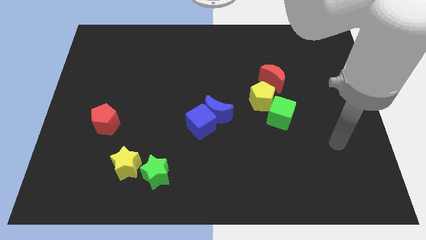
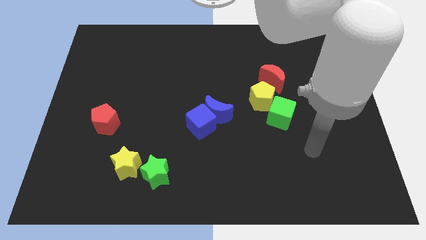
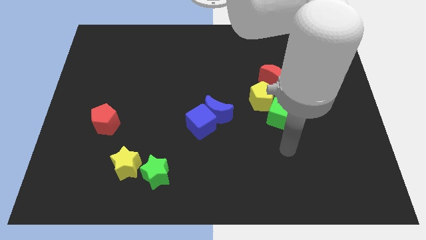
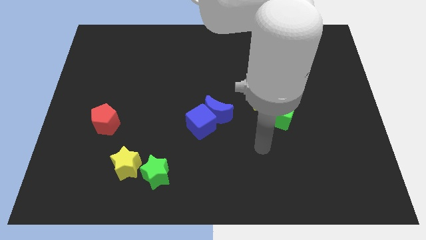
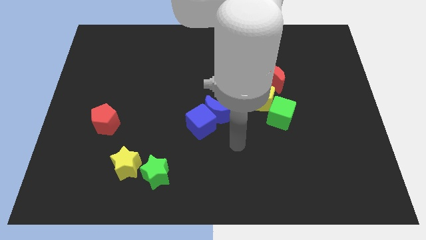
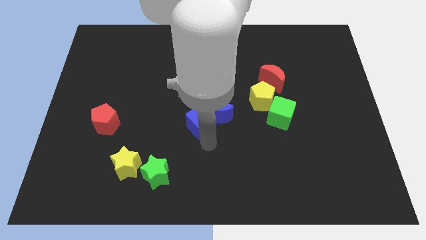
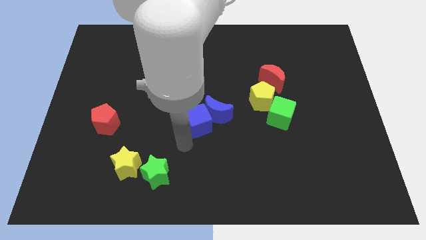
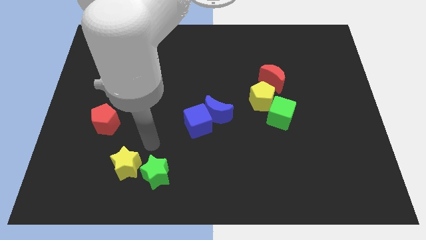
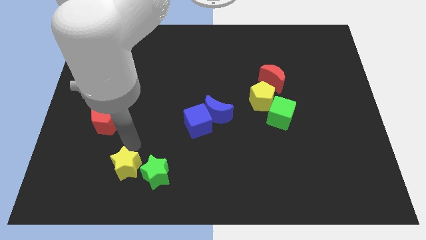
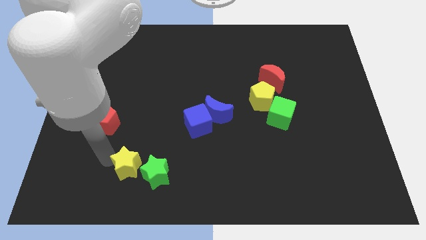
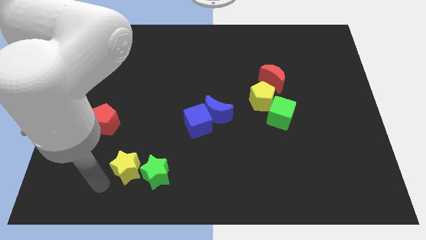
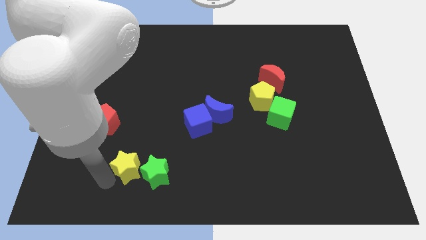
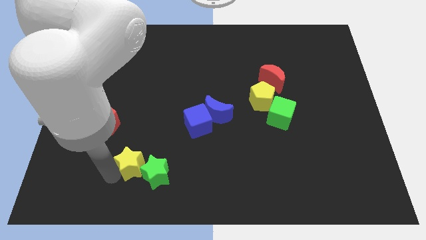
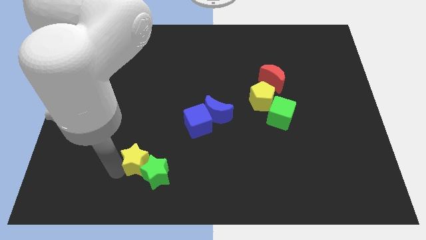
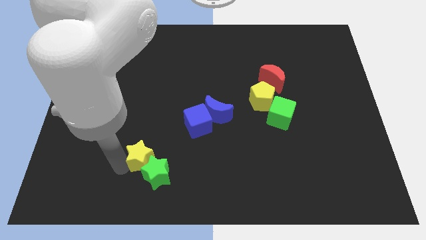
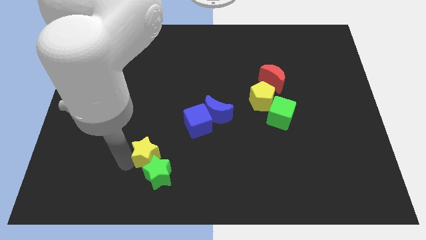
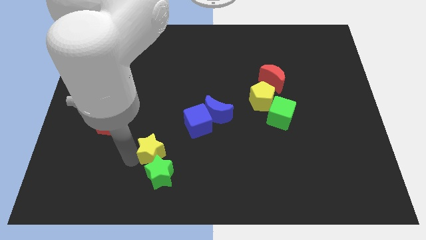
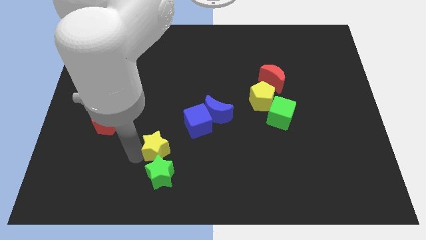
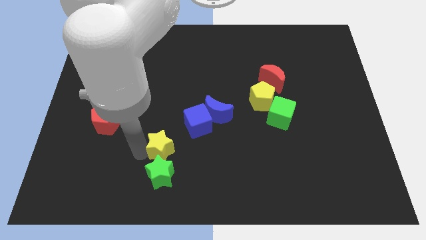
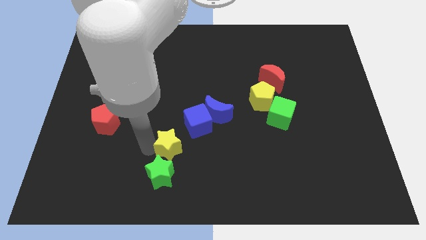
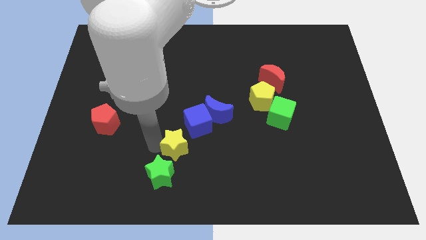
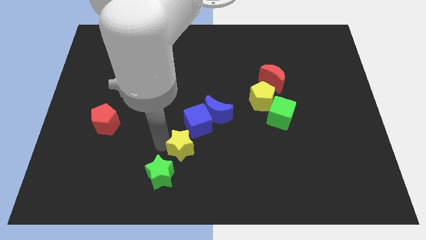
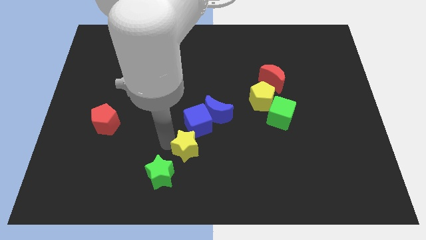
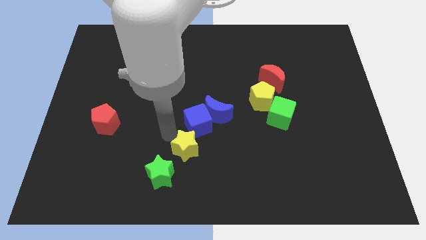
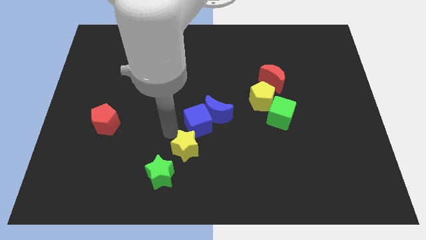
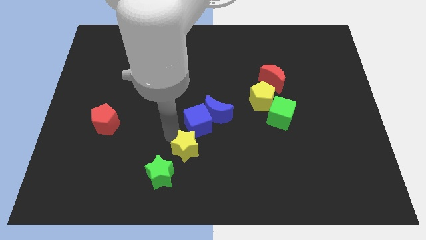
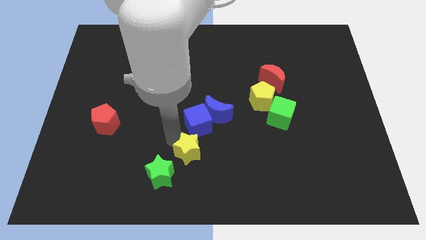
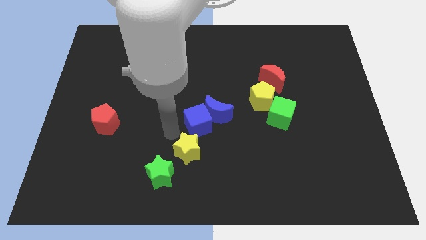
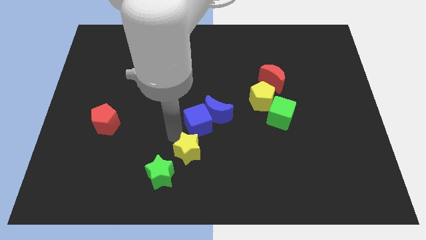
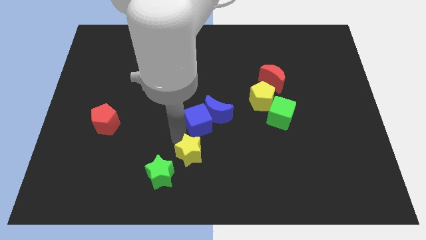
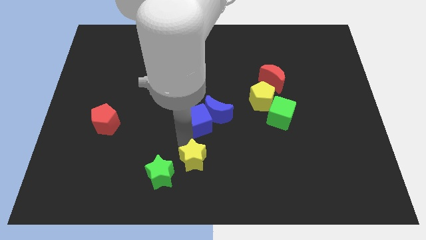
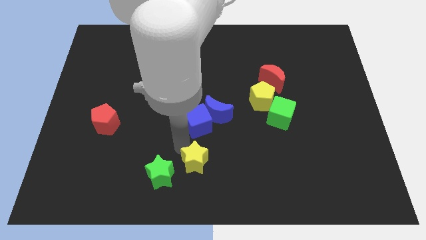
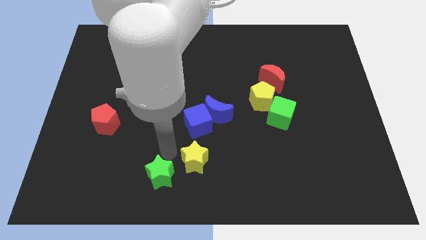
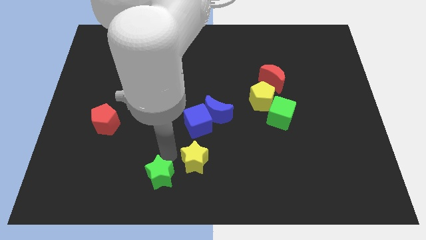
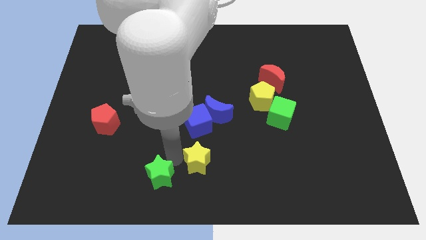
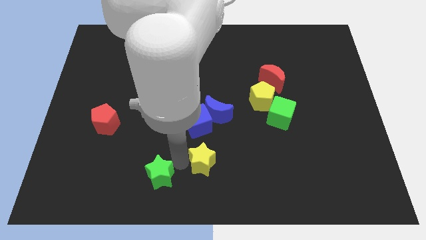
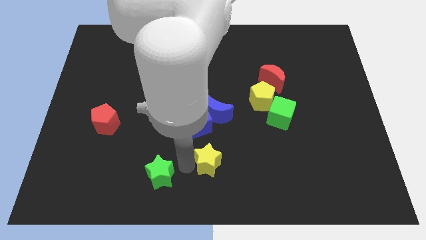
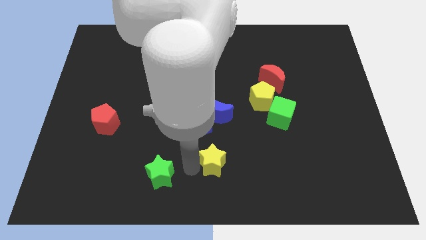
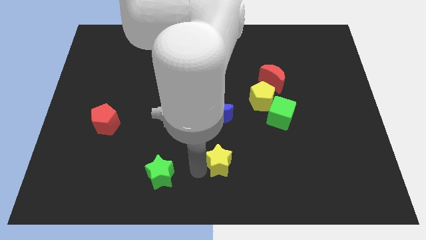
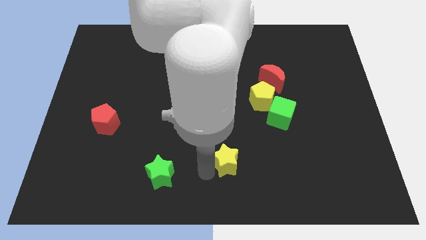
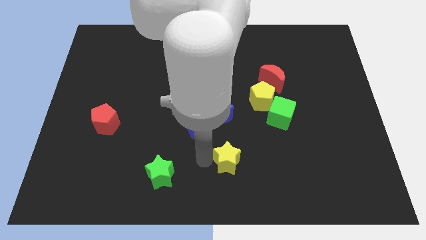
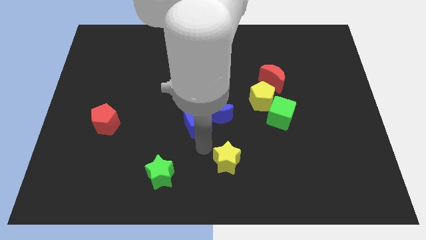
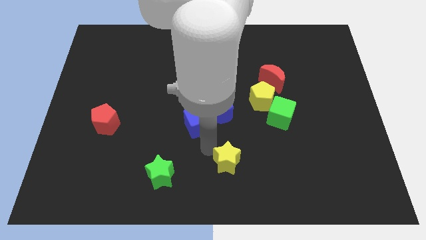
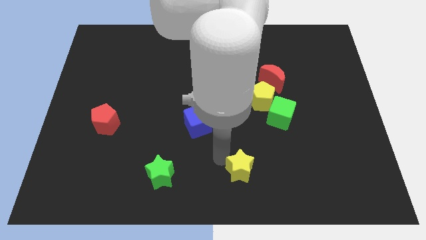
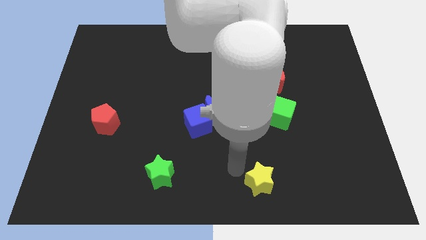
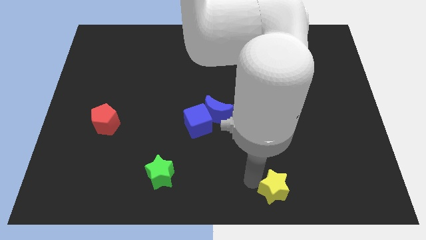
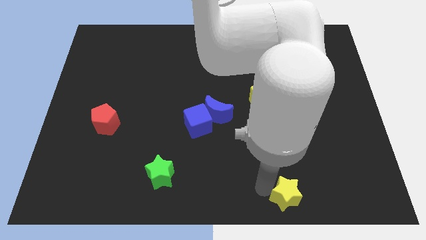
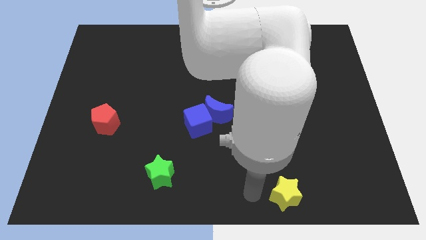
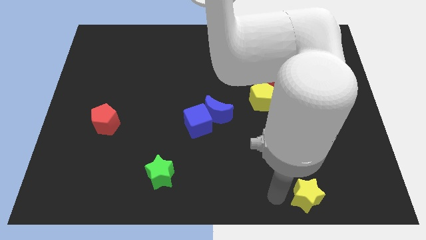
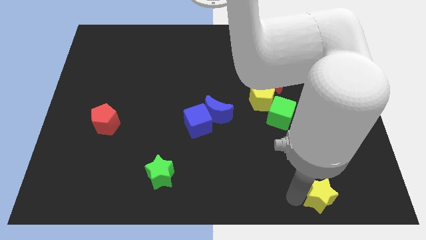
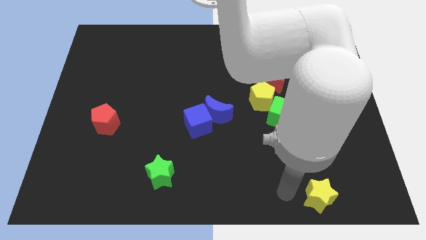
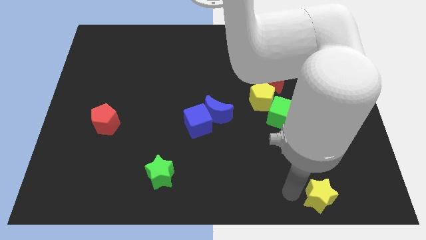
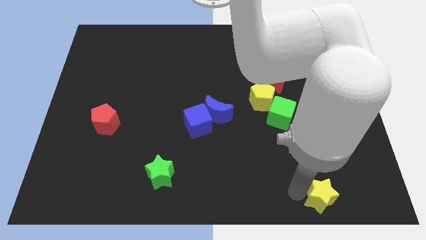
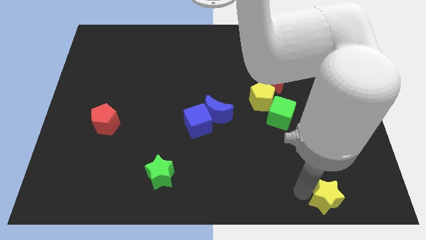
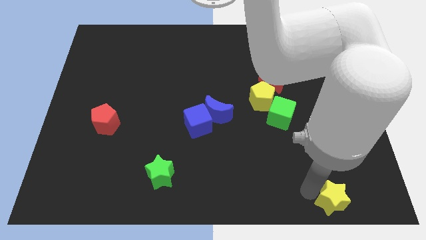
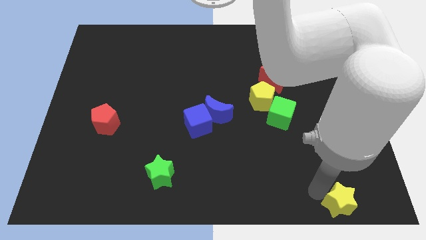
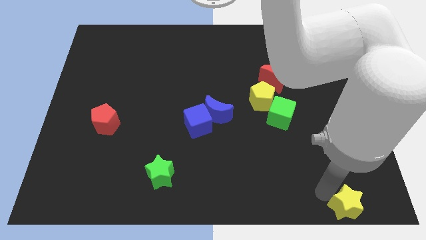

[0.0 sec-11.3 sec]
put the yellow star to the bottom right of the board
